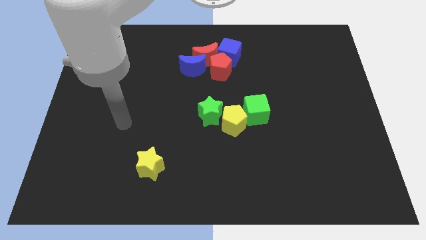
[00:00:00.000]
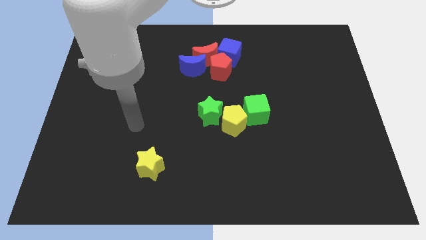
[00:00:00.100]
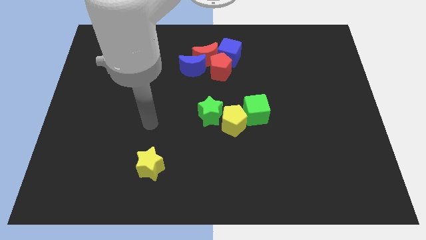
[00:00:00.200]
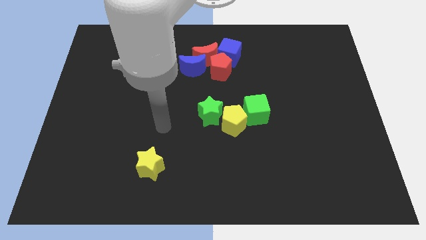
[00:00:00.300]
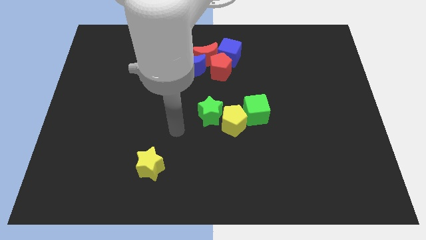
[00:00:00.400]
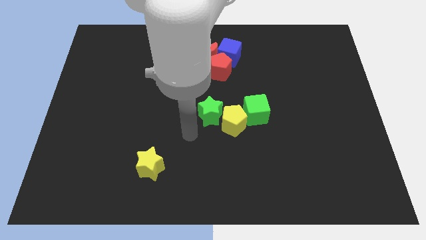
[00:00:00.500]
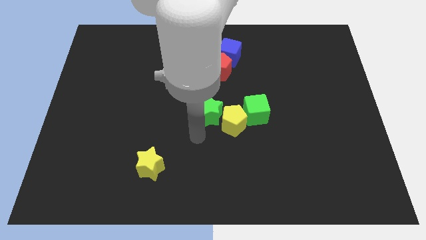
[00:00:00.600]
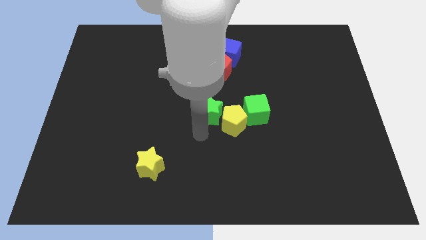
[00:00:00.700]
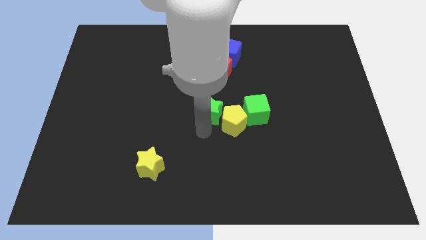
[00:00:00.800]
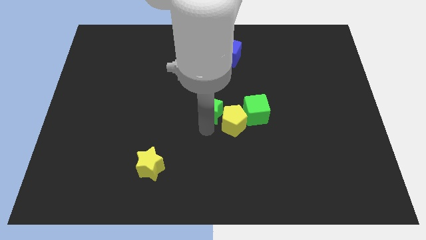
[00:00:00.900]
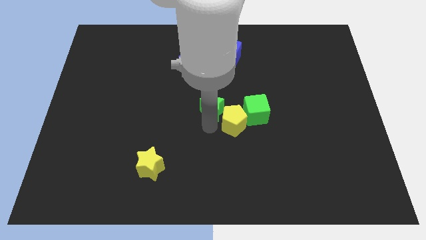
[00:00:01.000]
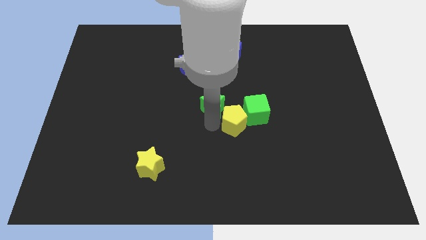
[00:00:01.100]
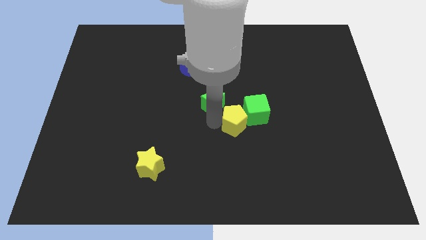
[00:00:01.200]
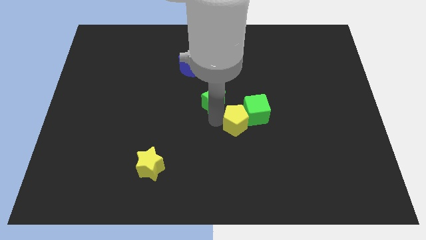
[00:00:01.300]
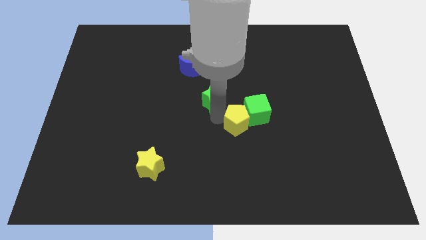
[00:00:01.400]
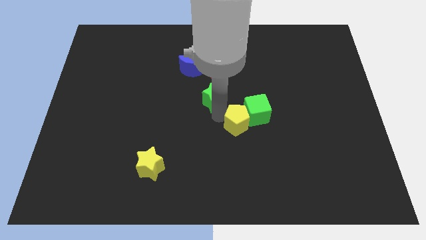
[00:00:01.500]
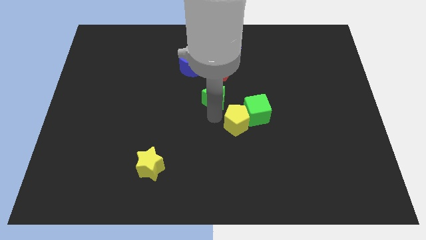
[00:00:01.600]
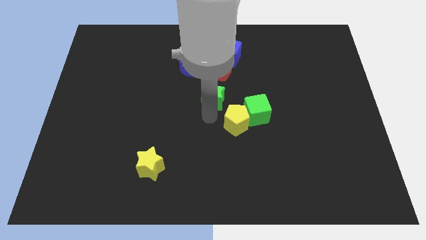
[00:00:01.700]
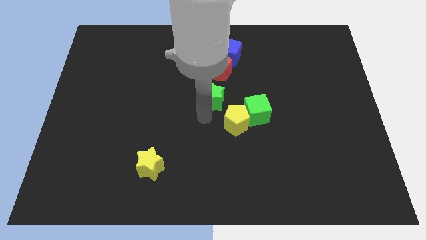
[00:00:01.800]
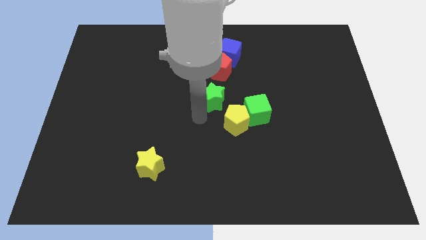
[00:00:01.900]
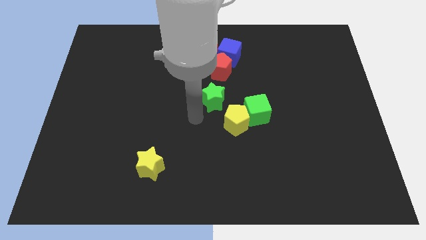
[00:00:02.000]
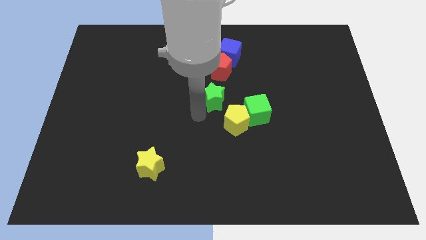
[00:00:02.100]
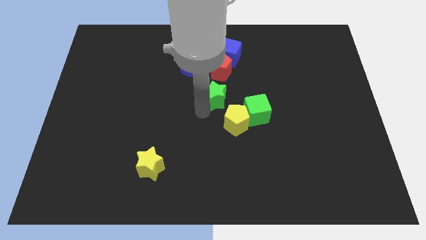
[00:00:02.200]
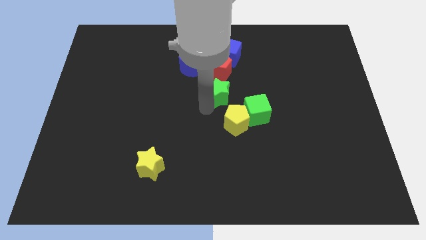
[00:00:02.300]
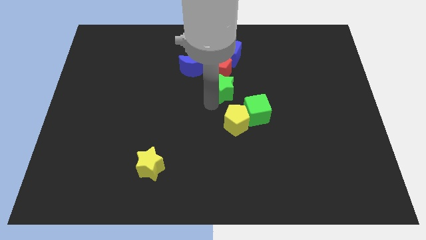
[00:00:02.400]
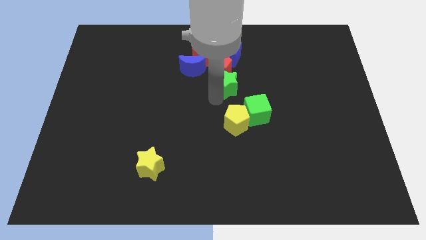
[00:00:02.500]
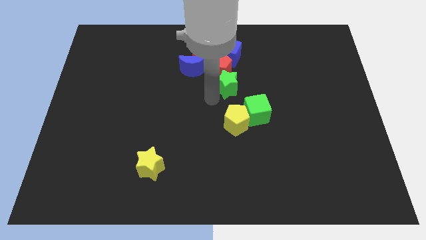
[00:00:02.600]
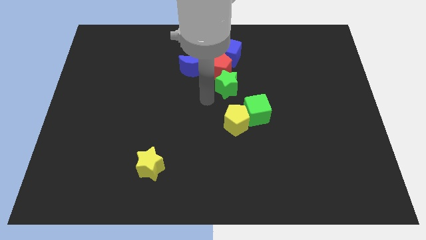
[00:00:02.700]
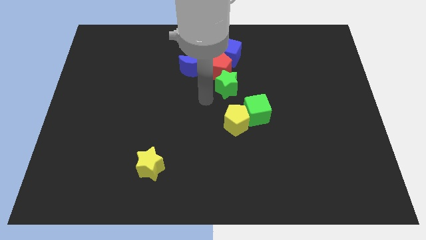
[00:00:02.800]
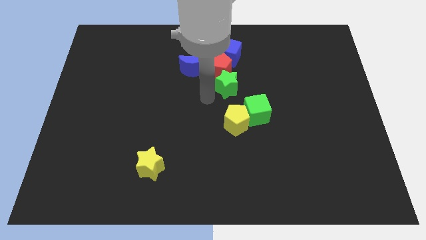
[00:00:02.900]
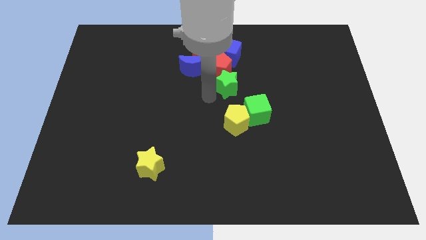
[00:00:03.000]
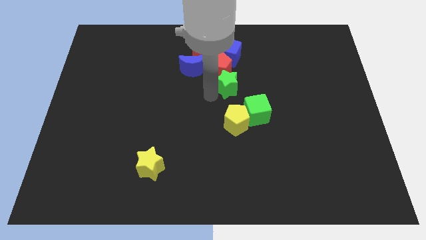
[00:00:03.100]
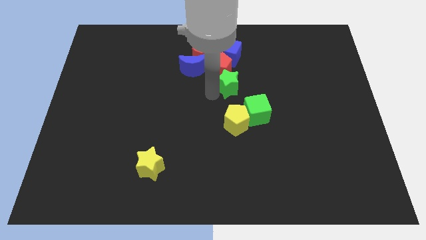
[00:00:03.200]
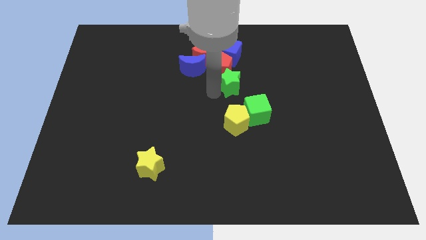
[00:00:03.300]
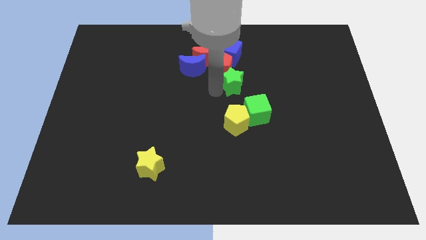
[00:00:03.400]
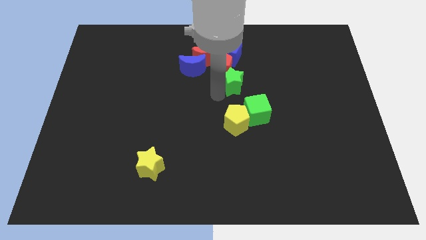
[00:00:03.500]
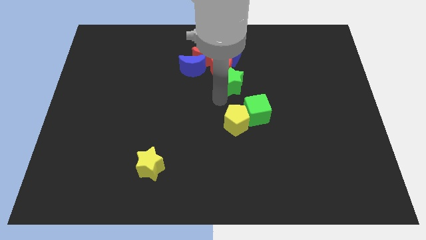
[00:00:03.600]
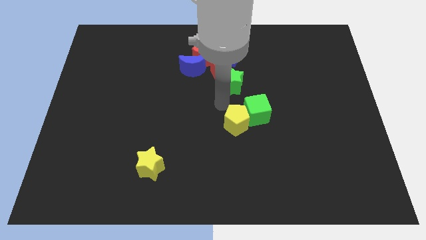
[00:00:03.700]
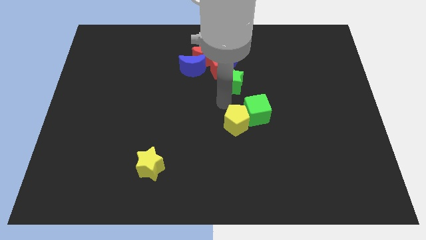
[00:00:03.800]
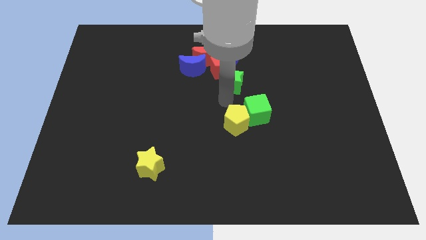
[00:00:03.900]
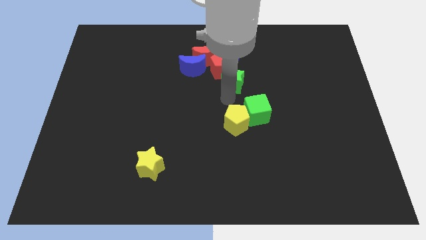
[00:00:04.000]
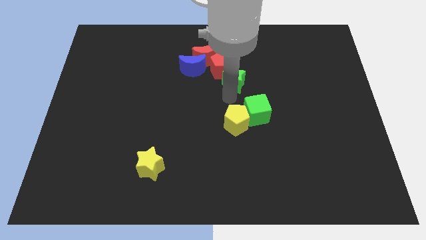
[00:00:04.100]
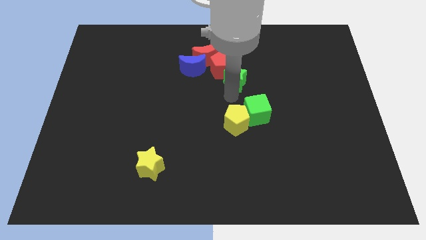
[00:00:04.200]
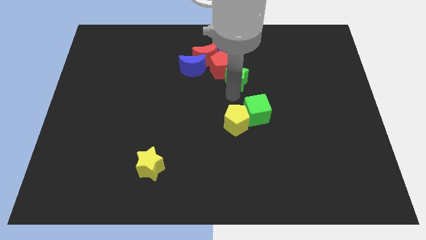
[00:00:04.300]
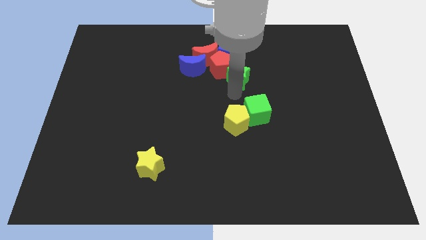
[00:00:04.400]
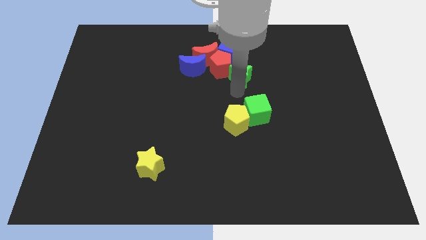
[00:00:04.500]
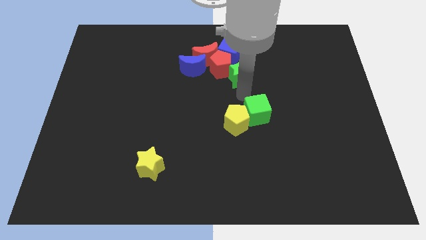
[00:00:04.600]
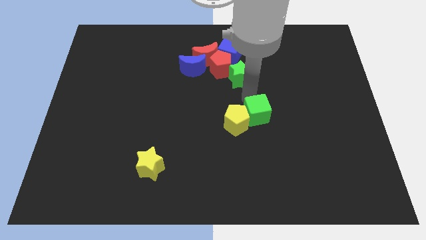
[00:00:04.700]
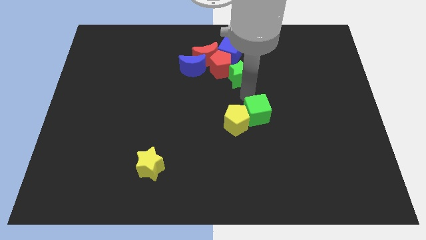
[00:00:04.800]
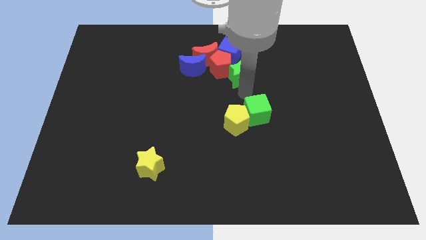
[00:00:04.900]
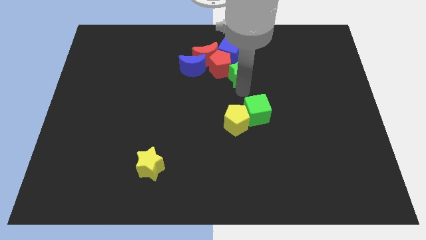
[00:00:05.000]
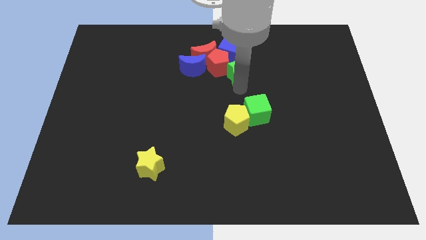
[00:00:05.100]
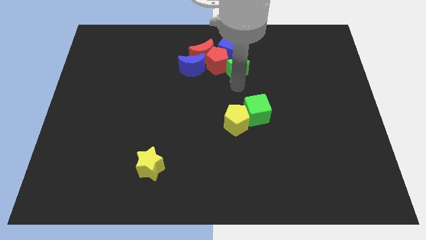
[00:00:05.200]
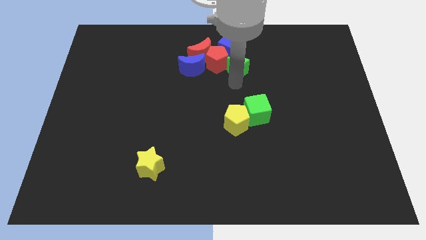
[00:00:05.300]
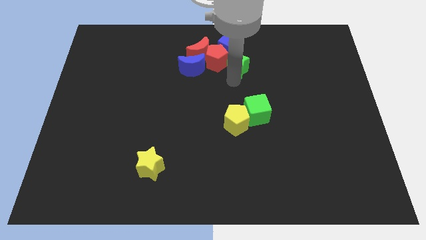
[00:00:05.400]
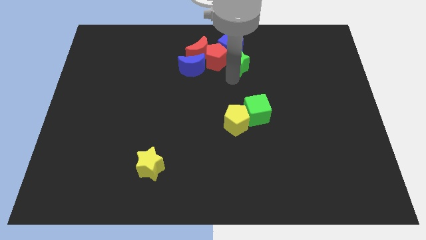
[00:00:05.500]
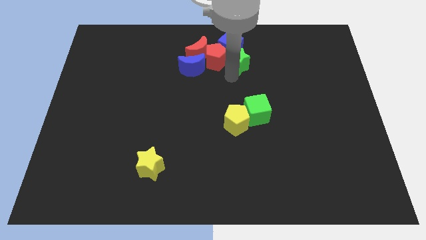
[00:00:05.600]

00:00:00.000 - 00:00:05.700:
put the green star towards the blue cube

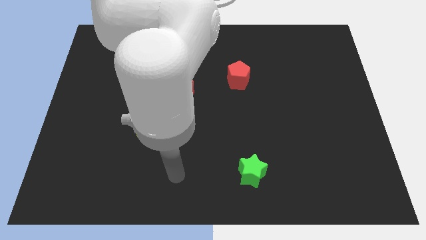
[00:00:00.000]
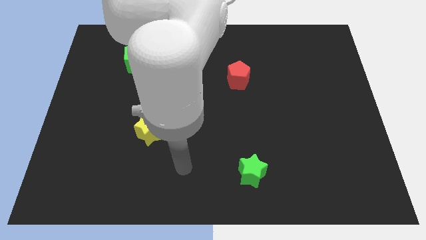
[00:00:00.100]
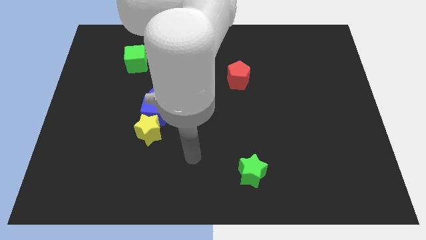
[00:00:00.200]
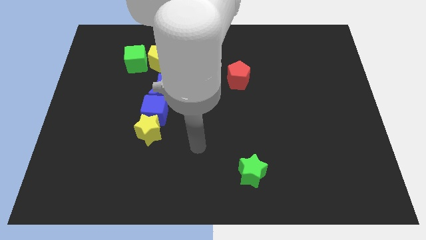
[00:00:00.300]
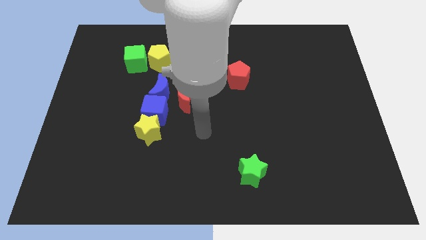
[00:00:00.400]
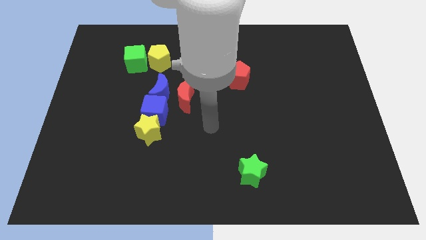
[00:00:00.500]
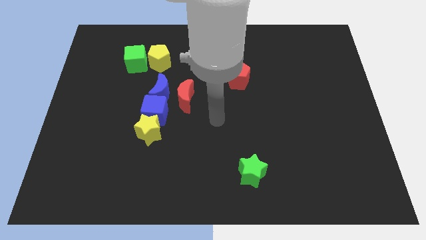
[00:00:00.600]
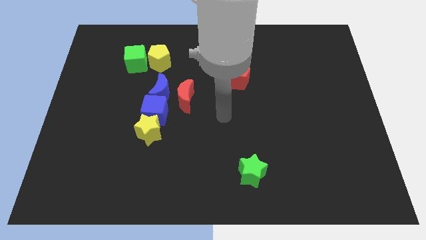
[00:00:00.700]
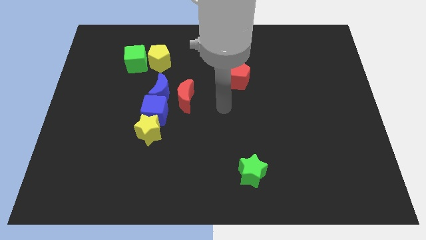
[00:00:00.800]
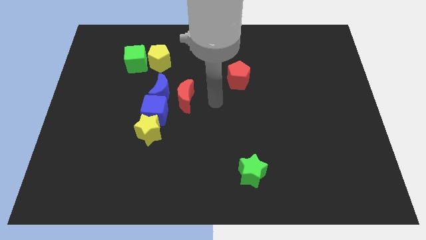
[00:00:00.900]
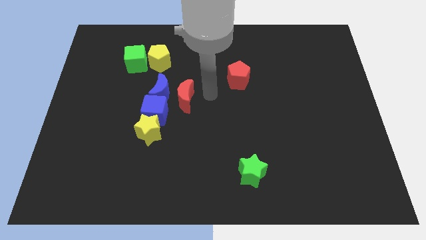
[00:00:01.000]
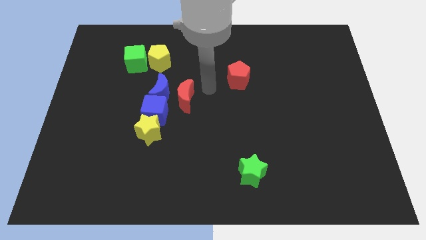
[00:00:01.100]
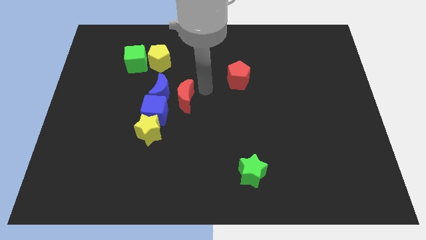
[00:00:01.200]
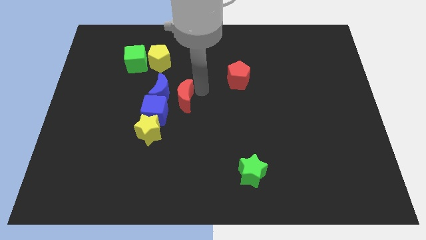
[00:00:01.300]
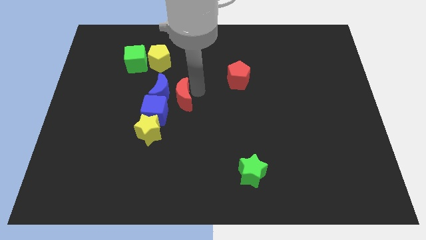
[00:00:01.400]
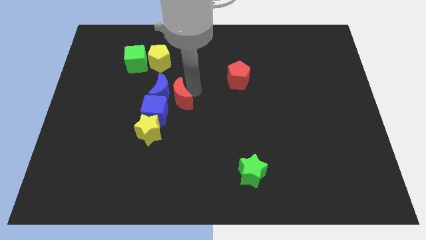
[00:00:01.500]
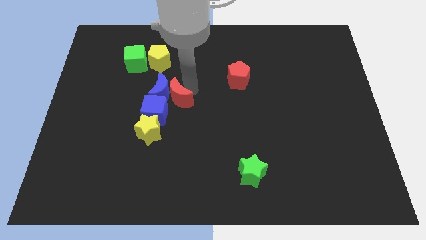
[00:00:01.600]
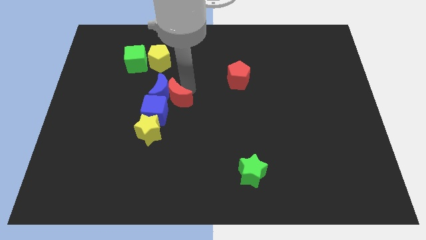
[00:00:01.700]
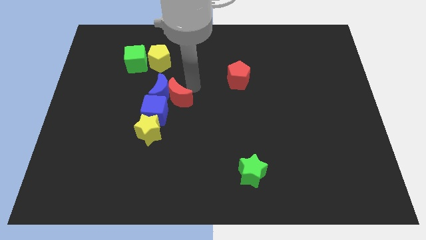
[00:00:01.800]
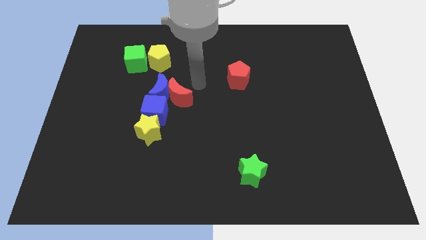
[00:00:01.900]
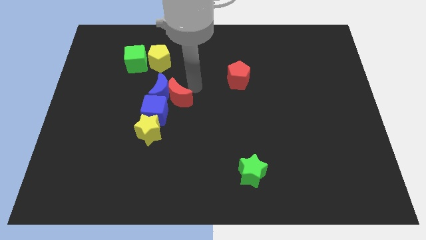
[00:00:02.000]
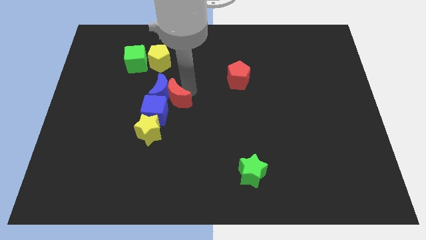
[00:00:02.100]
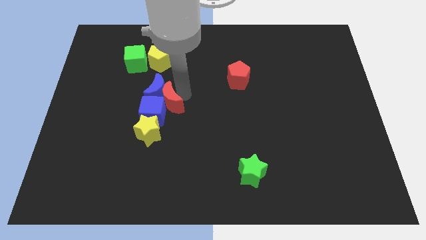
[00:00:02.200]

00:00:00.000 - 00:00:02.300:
slide the red moon close to the blue cube

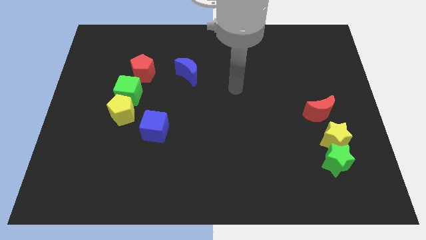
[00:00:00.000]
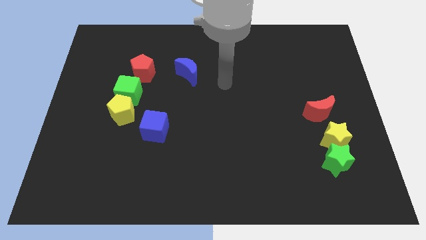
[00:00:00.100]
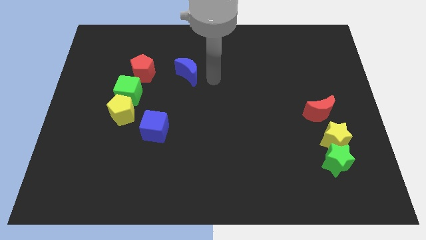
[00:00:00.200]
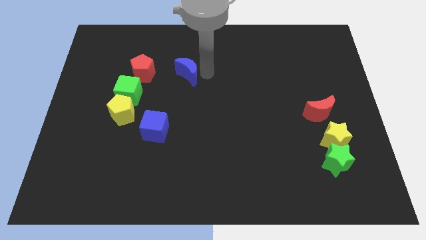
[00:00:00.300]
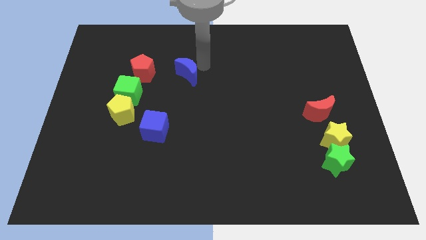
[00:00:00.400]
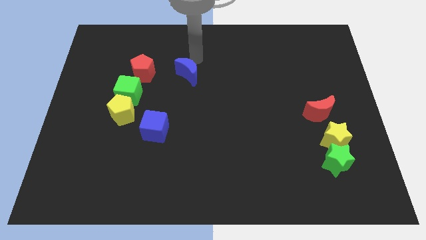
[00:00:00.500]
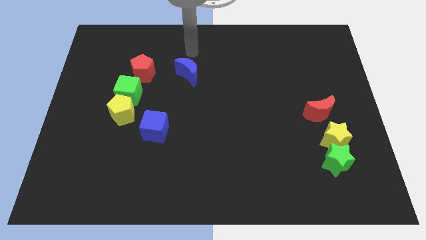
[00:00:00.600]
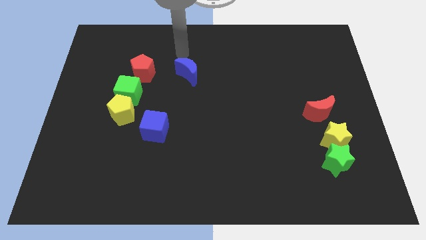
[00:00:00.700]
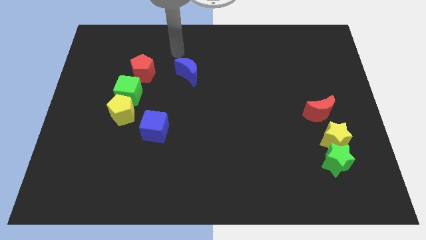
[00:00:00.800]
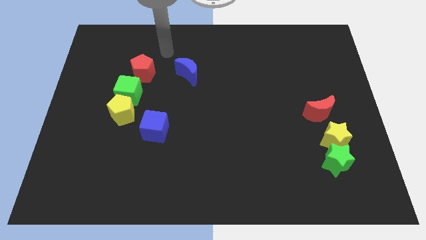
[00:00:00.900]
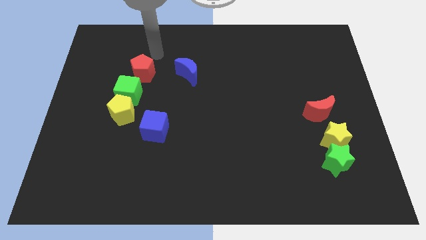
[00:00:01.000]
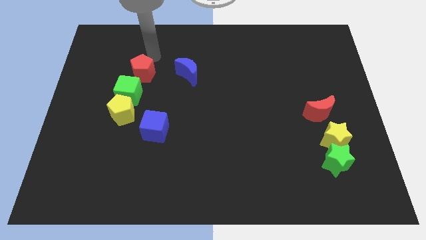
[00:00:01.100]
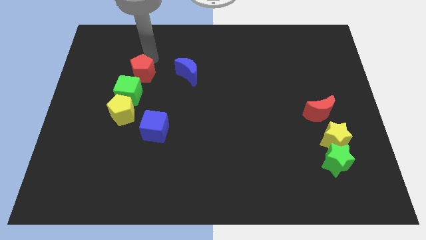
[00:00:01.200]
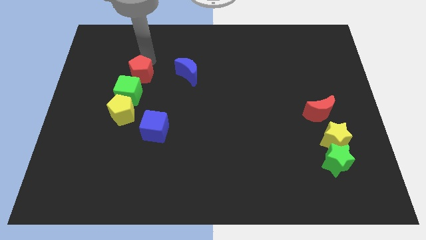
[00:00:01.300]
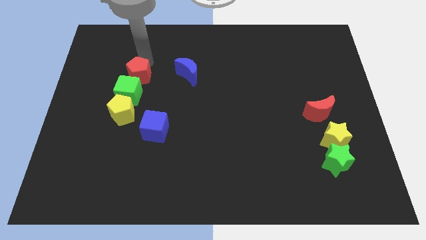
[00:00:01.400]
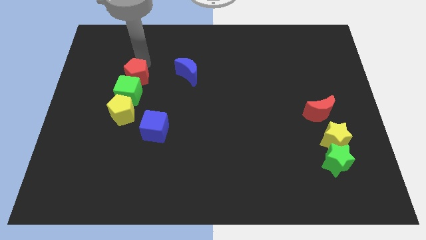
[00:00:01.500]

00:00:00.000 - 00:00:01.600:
push the red pentagon towards the green cube
